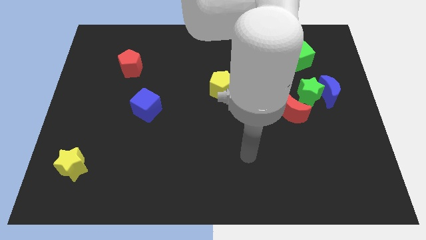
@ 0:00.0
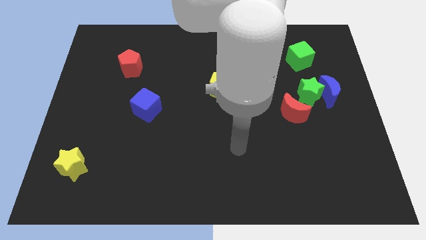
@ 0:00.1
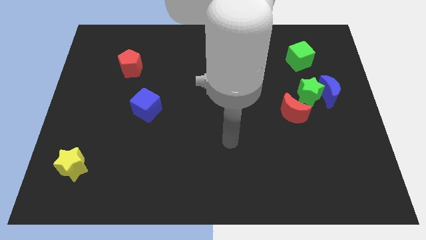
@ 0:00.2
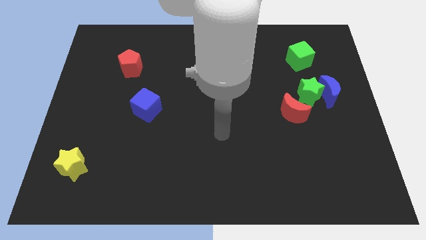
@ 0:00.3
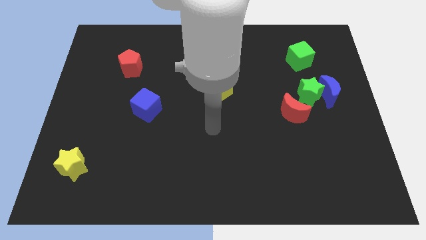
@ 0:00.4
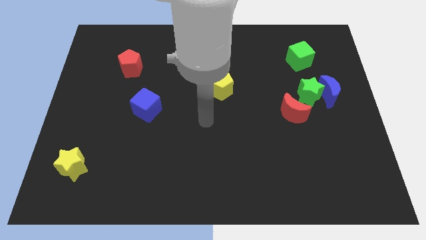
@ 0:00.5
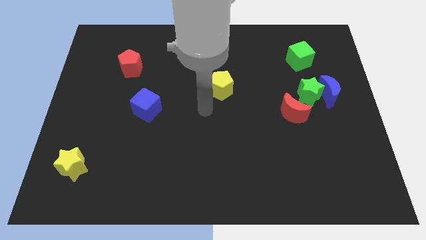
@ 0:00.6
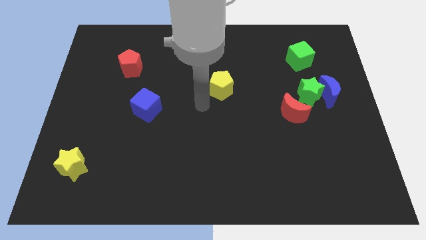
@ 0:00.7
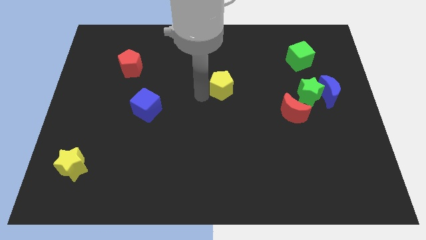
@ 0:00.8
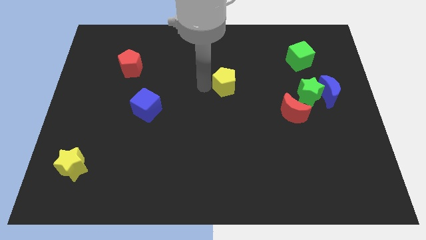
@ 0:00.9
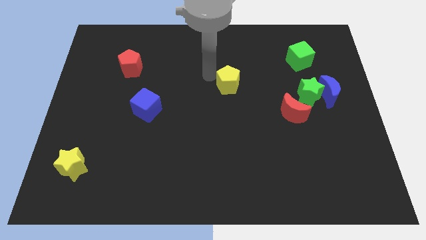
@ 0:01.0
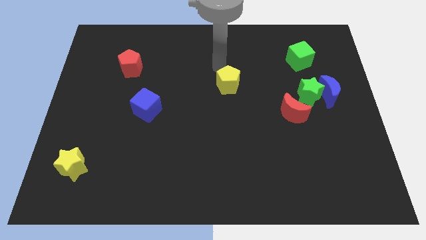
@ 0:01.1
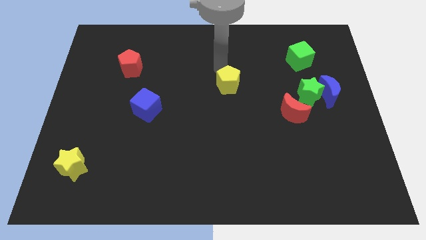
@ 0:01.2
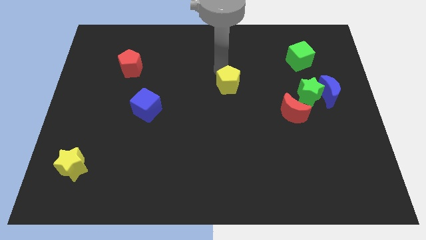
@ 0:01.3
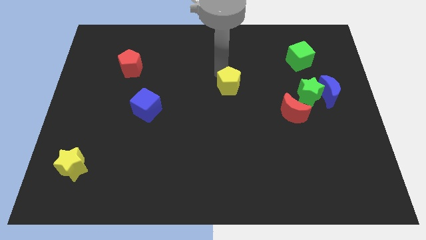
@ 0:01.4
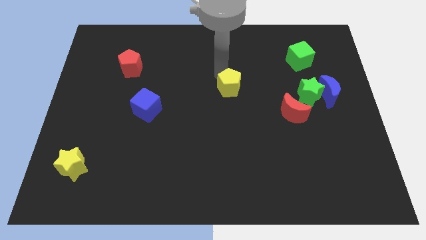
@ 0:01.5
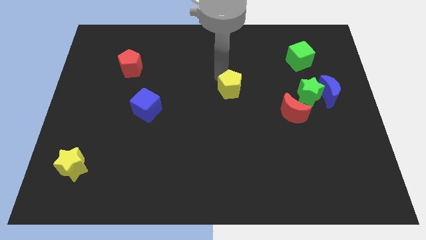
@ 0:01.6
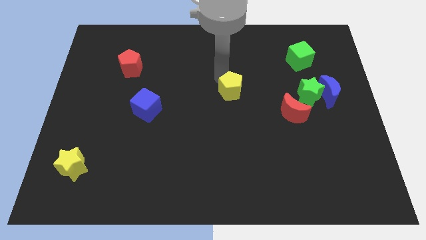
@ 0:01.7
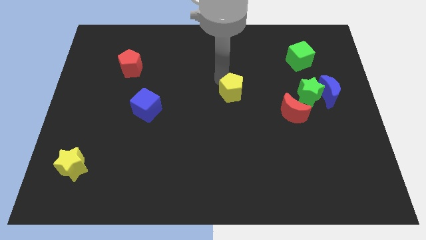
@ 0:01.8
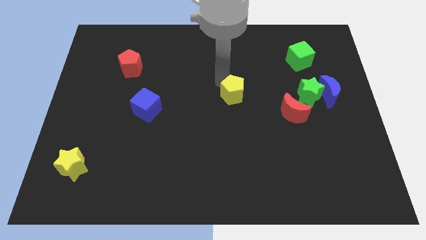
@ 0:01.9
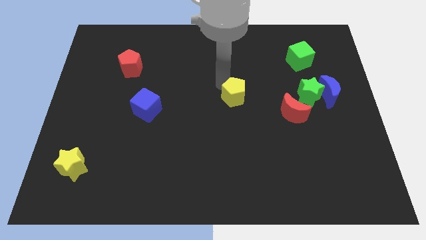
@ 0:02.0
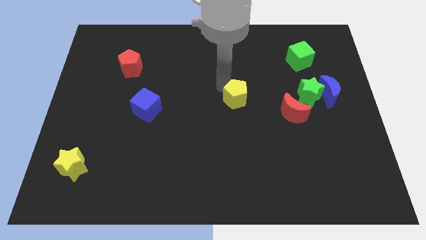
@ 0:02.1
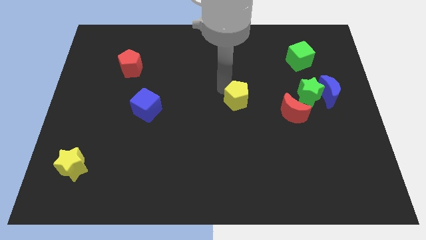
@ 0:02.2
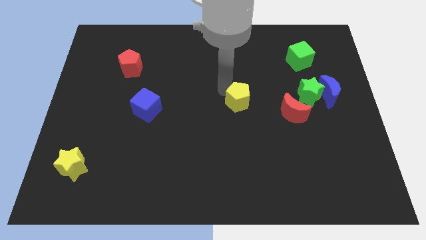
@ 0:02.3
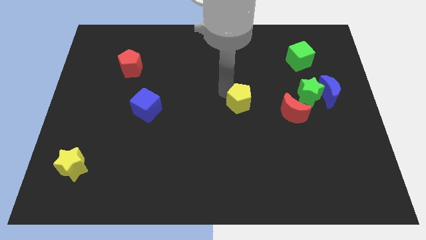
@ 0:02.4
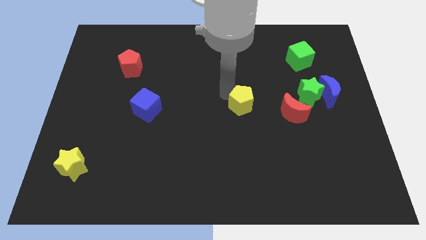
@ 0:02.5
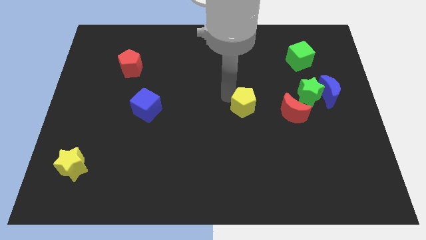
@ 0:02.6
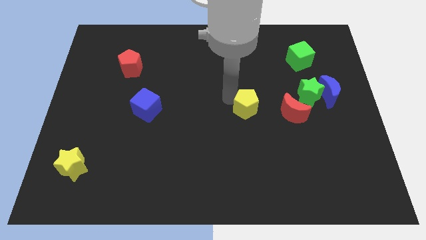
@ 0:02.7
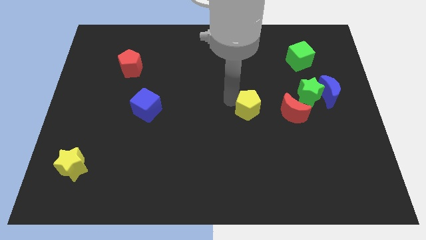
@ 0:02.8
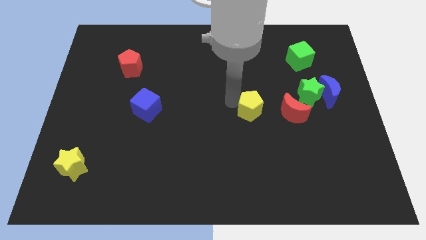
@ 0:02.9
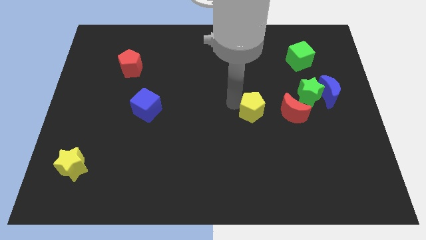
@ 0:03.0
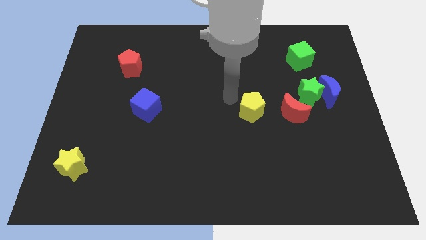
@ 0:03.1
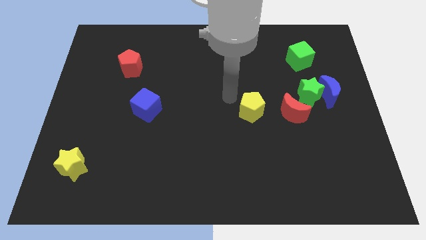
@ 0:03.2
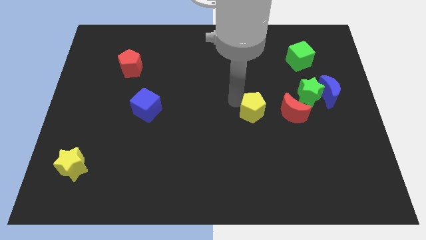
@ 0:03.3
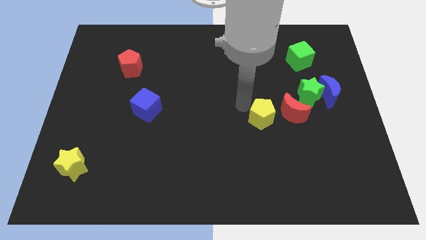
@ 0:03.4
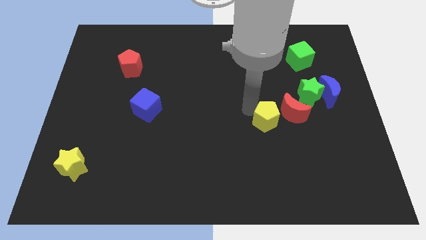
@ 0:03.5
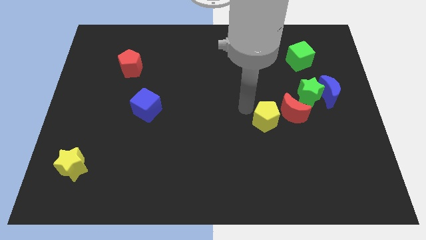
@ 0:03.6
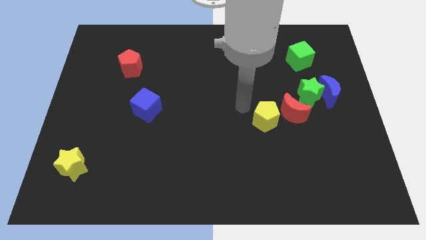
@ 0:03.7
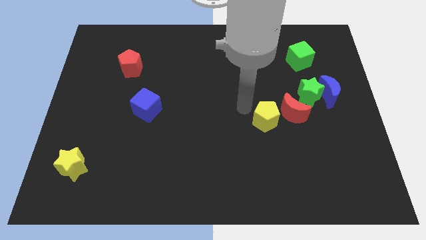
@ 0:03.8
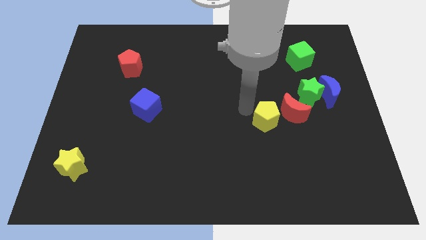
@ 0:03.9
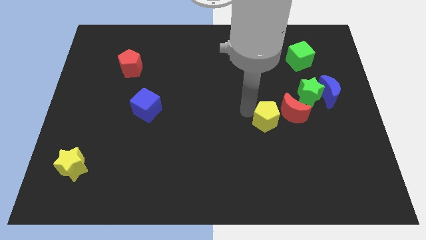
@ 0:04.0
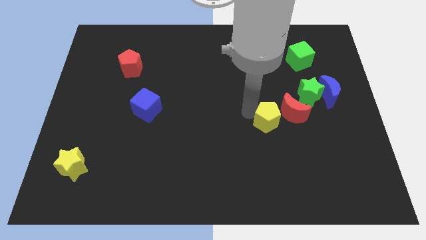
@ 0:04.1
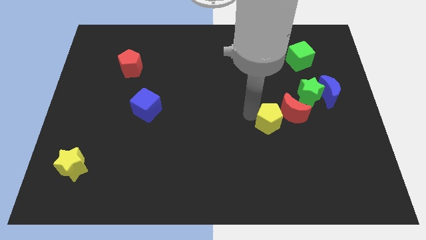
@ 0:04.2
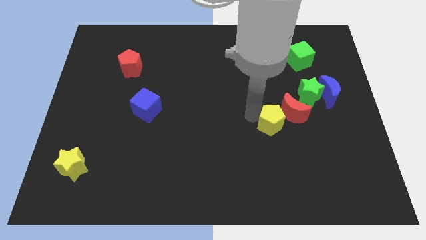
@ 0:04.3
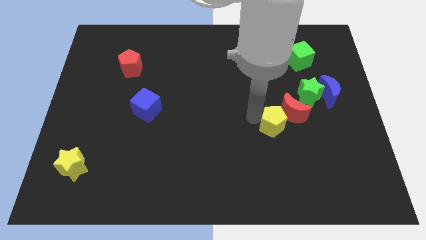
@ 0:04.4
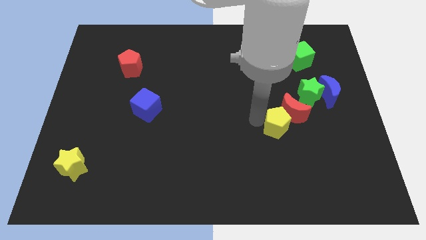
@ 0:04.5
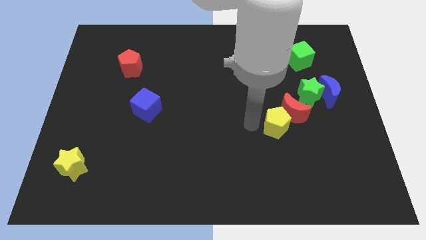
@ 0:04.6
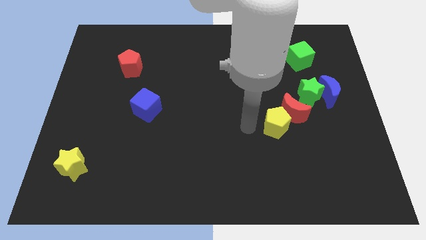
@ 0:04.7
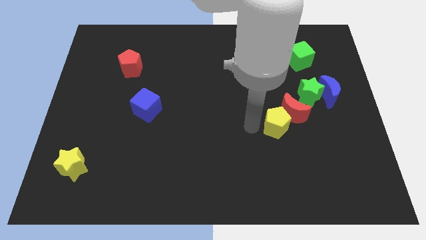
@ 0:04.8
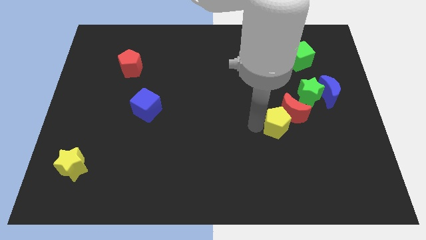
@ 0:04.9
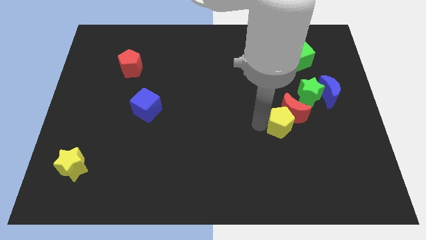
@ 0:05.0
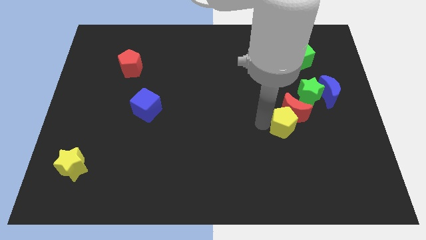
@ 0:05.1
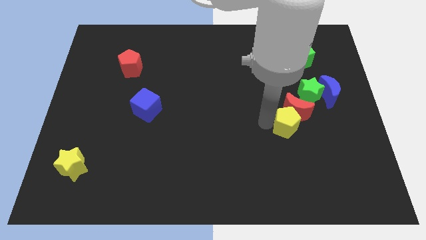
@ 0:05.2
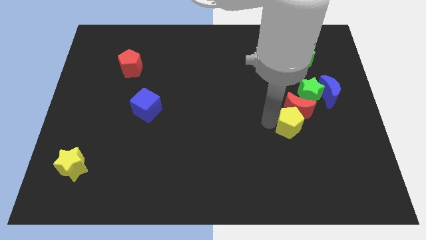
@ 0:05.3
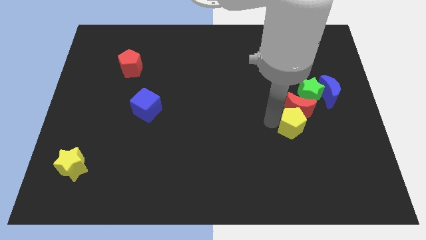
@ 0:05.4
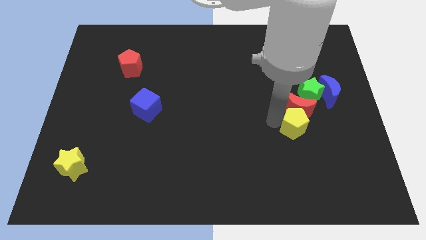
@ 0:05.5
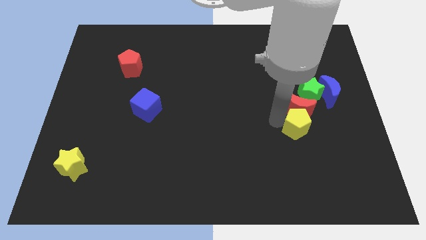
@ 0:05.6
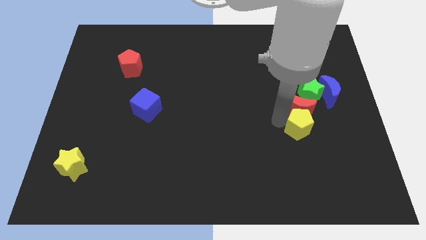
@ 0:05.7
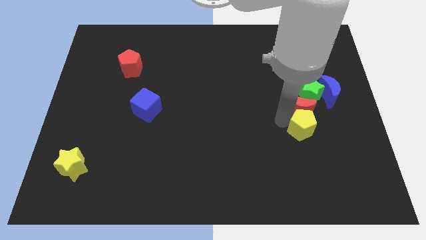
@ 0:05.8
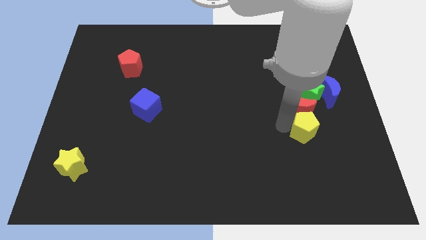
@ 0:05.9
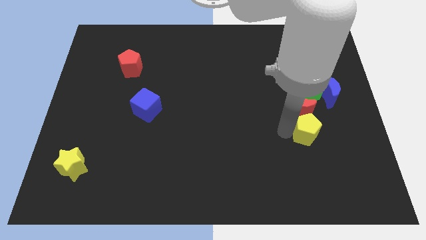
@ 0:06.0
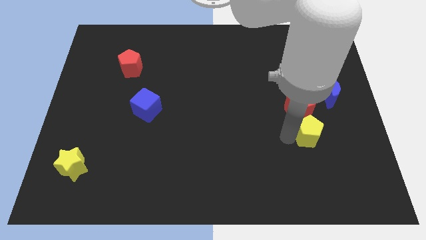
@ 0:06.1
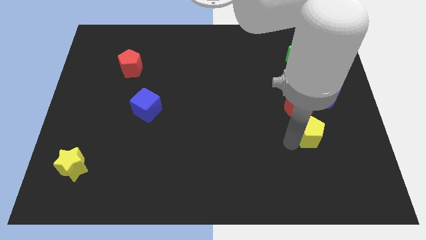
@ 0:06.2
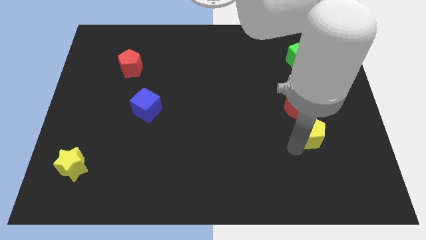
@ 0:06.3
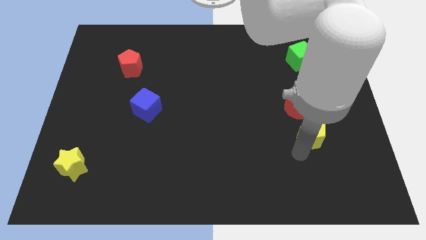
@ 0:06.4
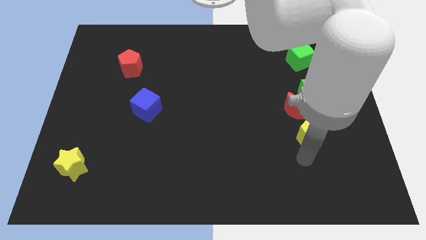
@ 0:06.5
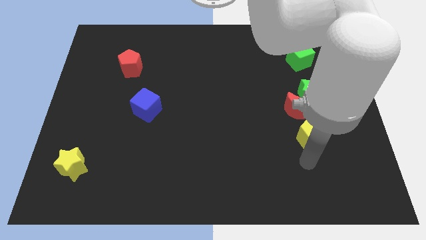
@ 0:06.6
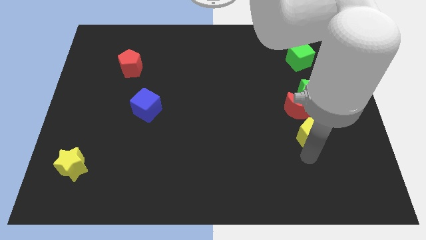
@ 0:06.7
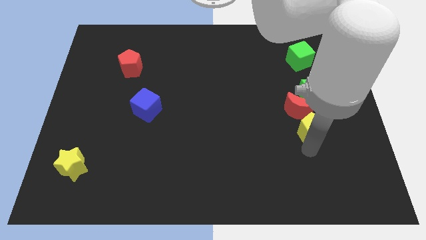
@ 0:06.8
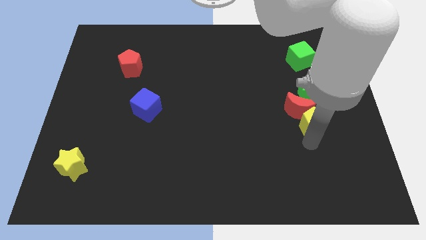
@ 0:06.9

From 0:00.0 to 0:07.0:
slide the yellow pentagon just right of the red moon
